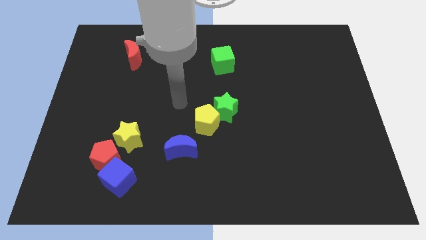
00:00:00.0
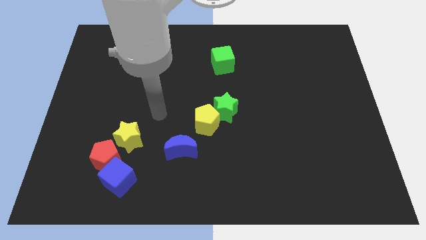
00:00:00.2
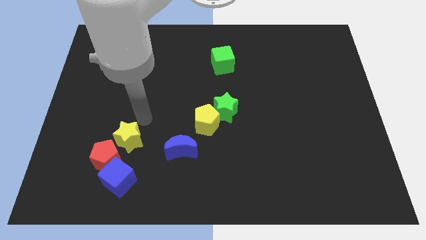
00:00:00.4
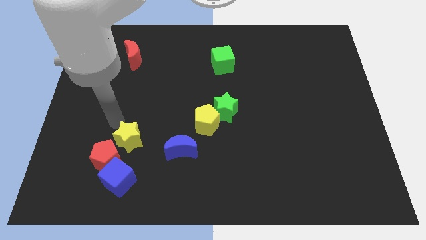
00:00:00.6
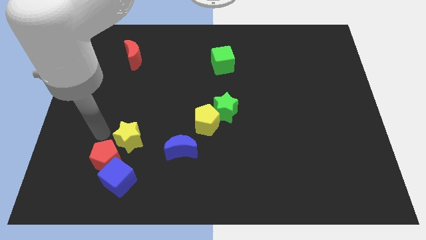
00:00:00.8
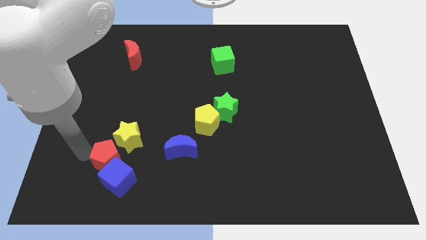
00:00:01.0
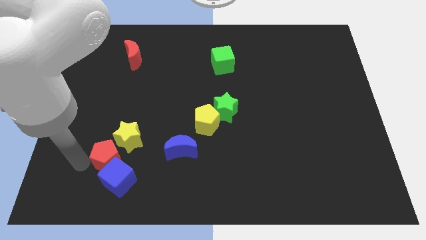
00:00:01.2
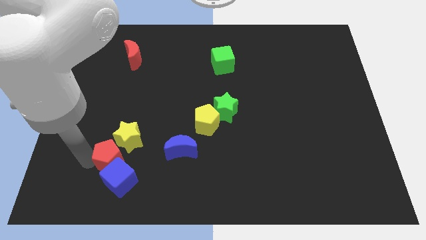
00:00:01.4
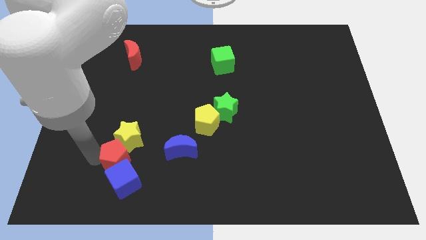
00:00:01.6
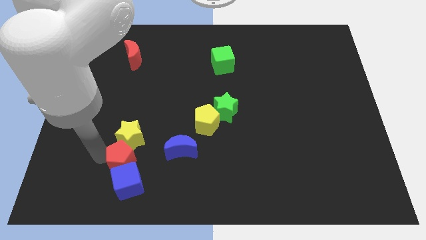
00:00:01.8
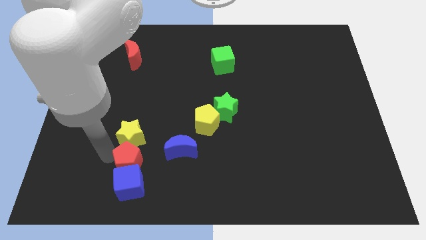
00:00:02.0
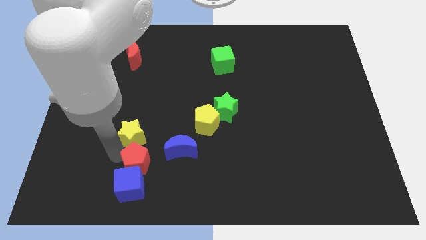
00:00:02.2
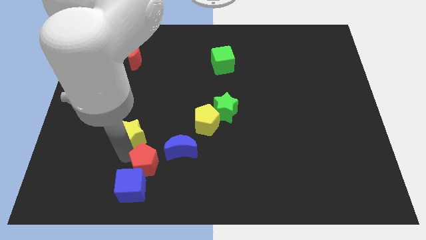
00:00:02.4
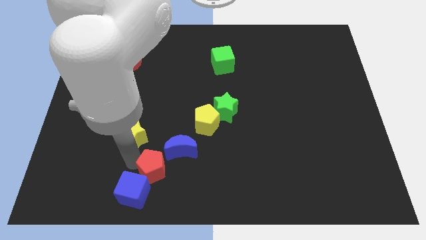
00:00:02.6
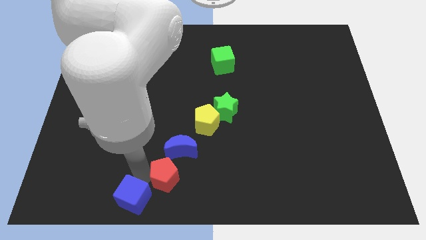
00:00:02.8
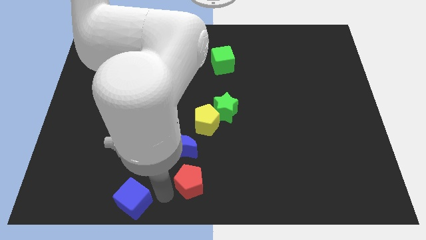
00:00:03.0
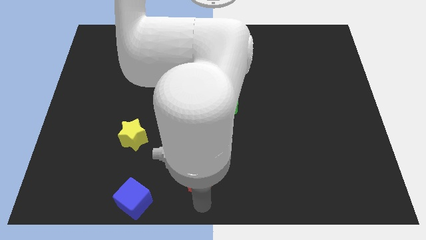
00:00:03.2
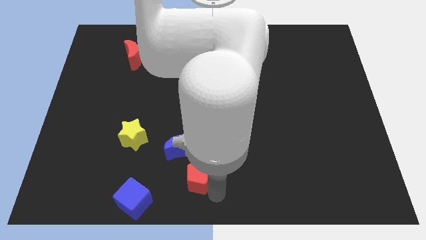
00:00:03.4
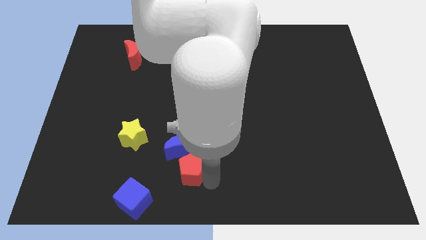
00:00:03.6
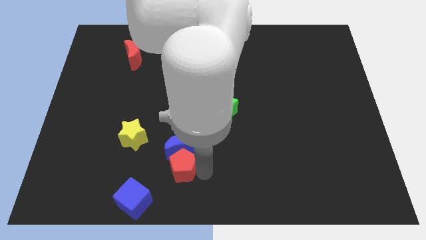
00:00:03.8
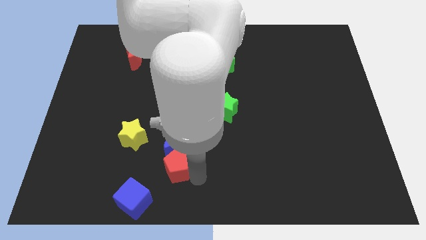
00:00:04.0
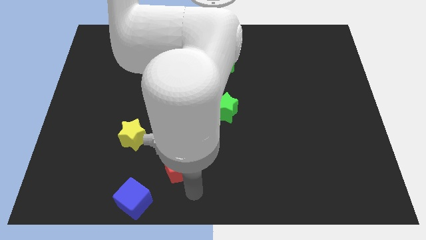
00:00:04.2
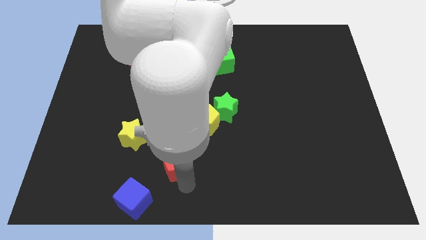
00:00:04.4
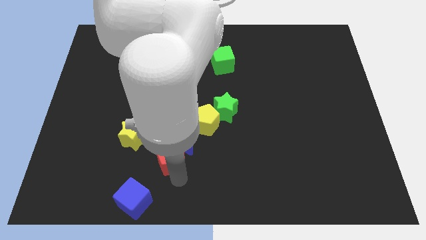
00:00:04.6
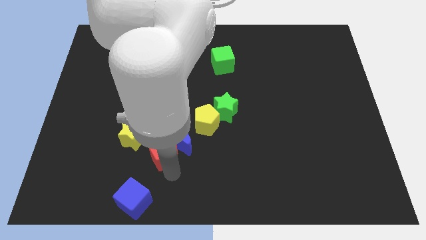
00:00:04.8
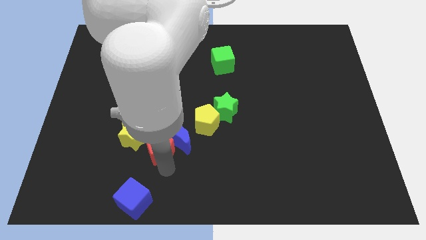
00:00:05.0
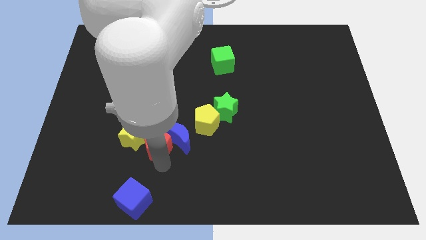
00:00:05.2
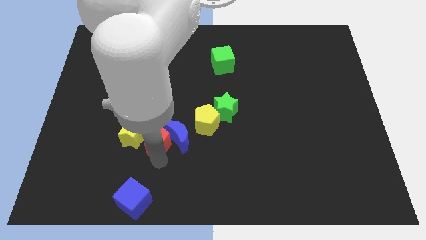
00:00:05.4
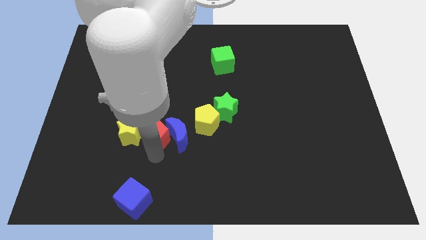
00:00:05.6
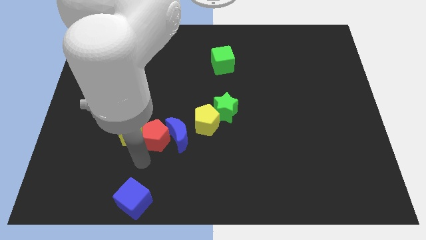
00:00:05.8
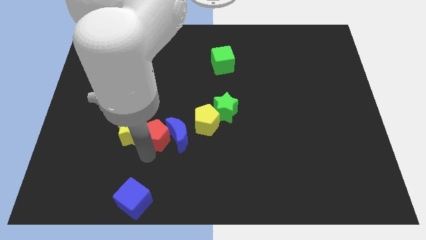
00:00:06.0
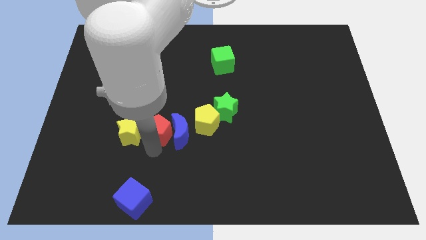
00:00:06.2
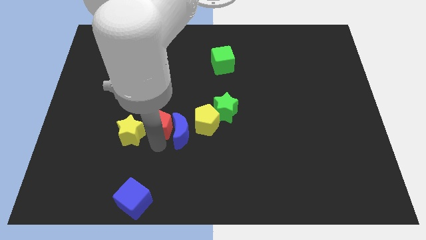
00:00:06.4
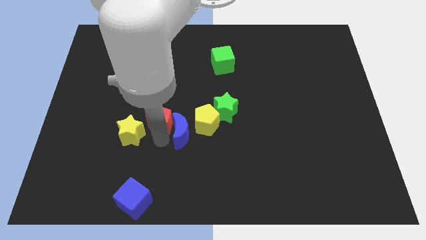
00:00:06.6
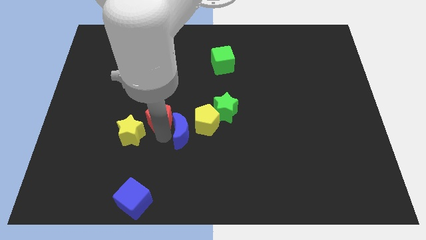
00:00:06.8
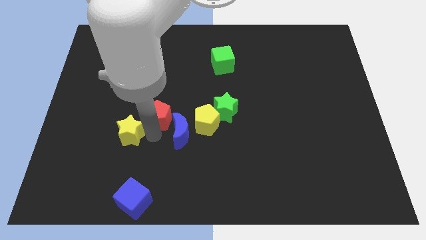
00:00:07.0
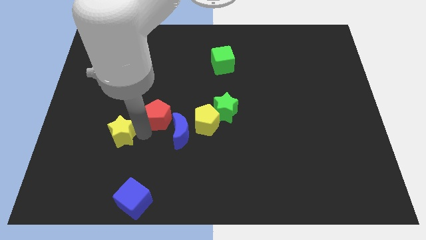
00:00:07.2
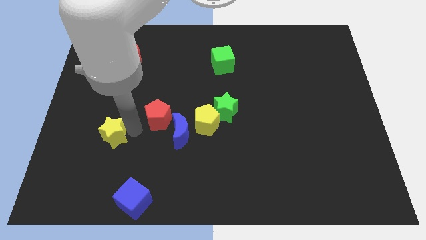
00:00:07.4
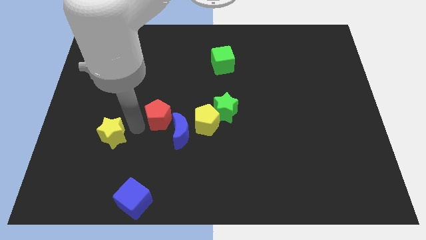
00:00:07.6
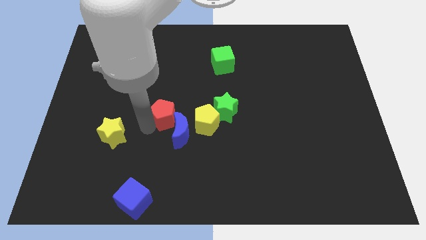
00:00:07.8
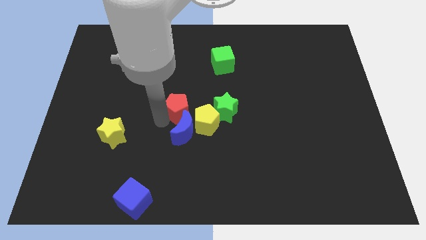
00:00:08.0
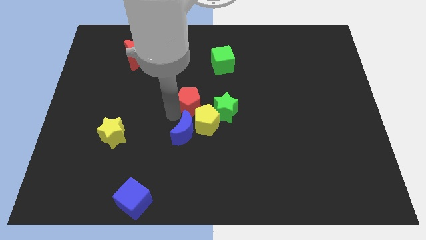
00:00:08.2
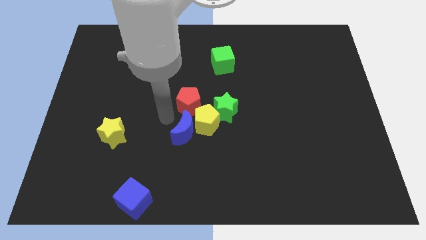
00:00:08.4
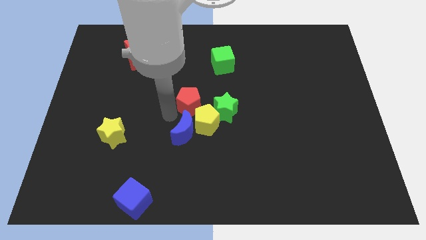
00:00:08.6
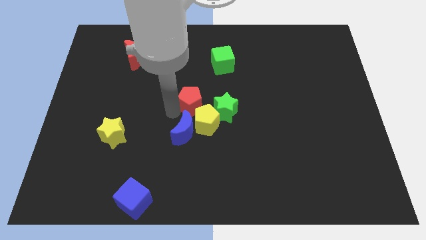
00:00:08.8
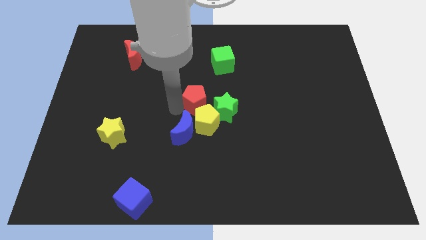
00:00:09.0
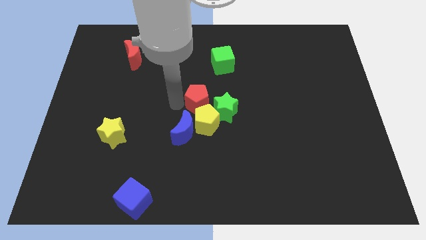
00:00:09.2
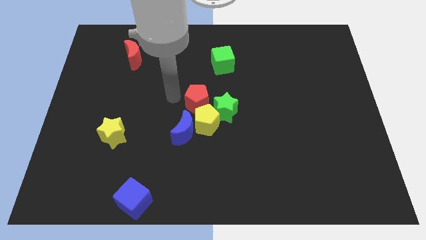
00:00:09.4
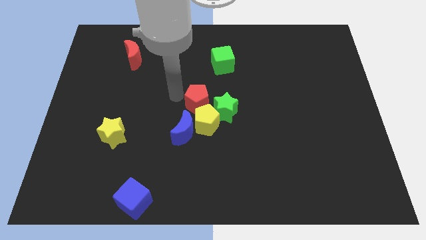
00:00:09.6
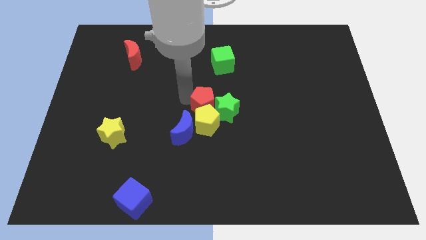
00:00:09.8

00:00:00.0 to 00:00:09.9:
slide the red pentagon next to the green star

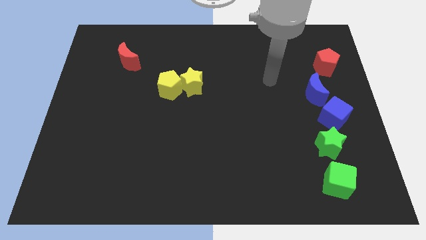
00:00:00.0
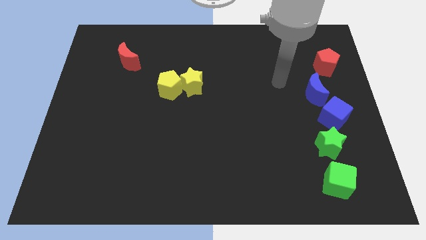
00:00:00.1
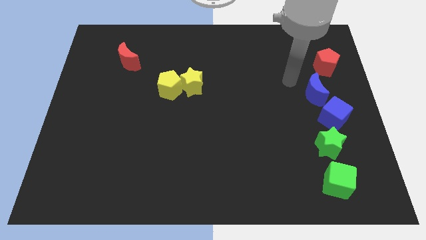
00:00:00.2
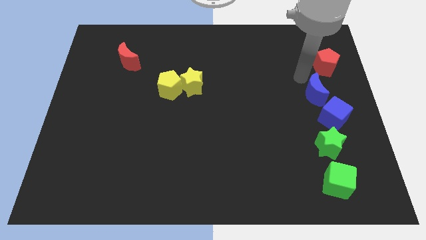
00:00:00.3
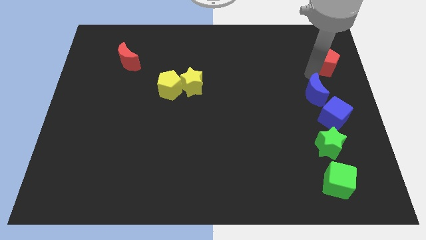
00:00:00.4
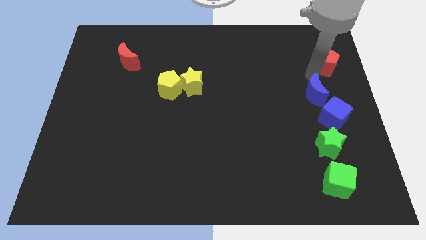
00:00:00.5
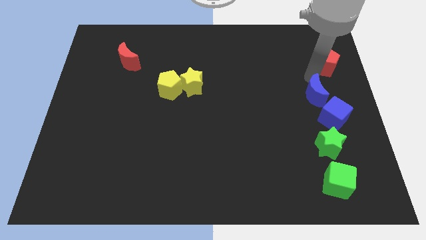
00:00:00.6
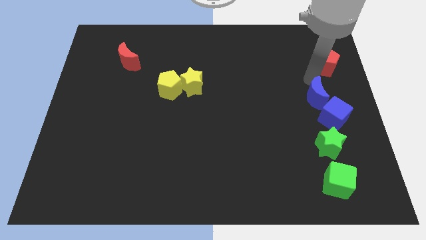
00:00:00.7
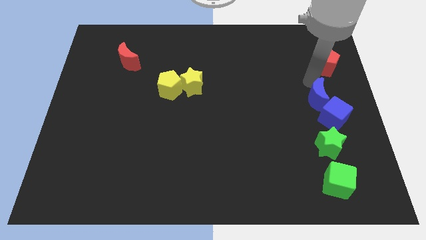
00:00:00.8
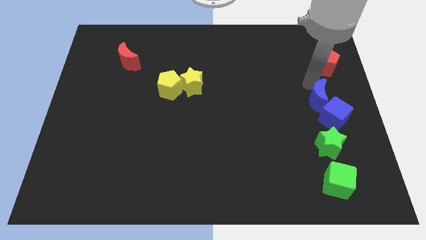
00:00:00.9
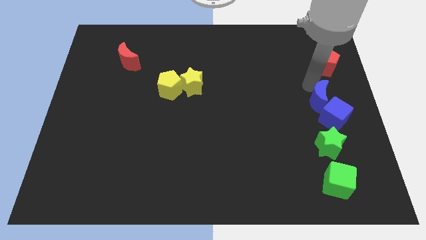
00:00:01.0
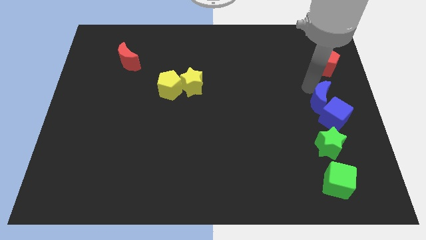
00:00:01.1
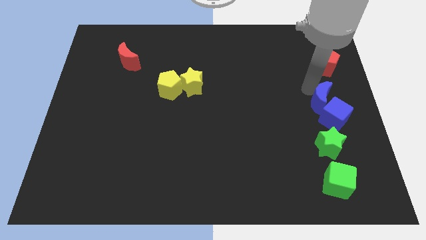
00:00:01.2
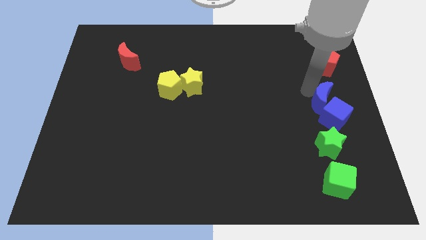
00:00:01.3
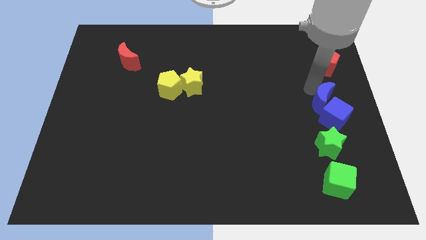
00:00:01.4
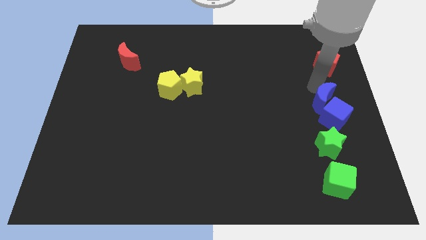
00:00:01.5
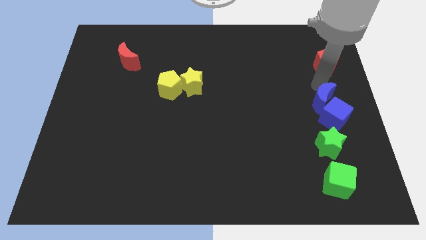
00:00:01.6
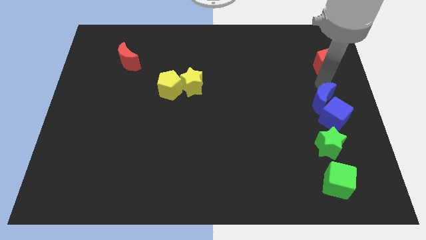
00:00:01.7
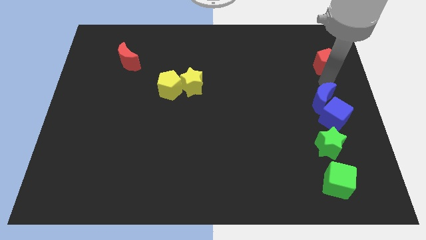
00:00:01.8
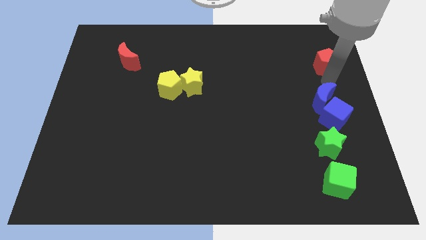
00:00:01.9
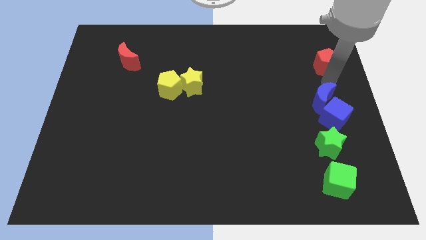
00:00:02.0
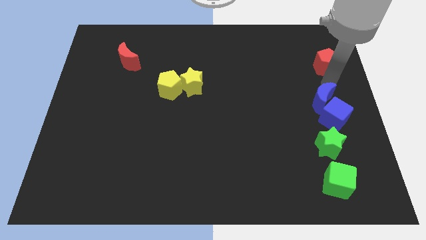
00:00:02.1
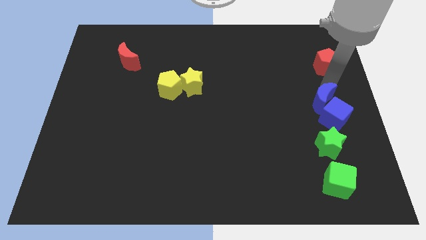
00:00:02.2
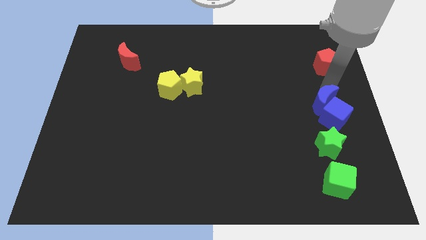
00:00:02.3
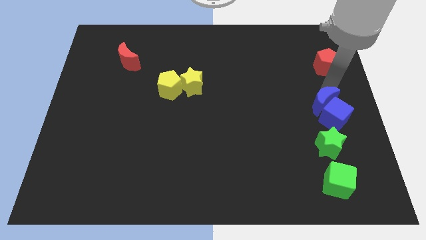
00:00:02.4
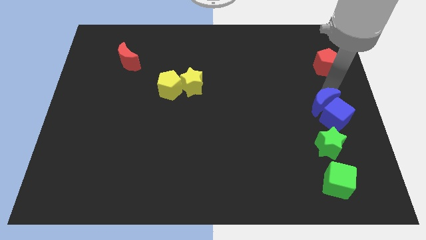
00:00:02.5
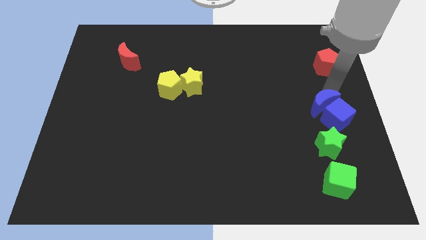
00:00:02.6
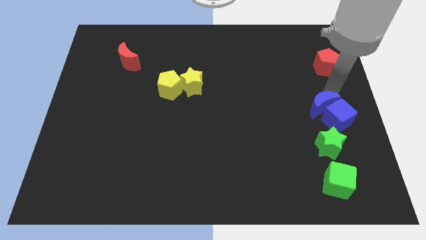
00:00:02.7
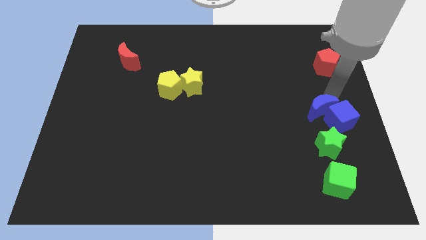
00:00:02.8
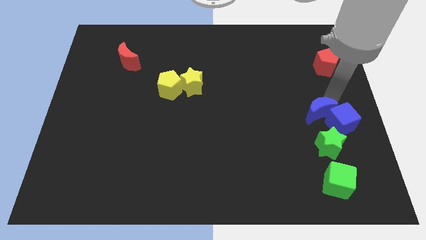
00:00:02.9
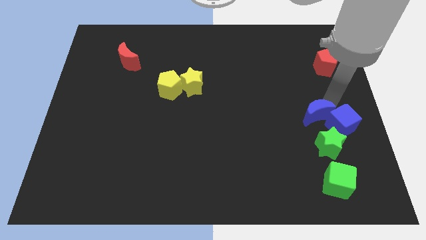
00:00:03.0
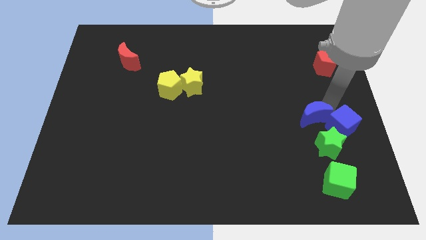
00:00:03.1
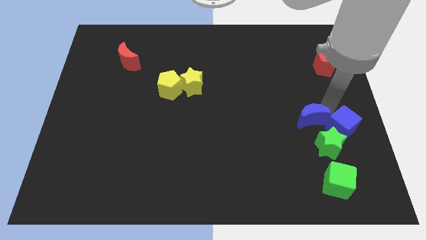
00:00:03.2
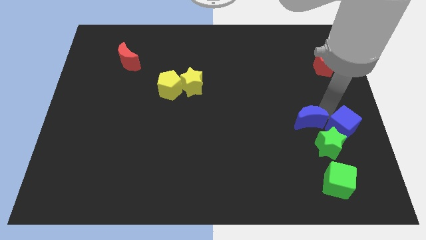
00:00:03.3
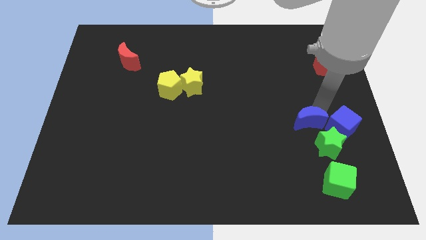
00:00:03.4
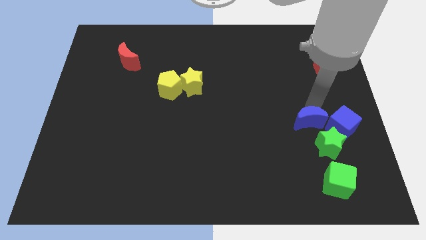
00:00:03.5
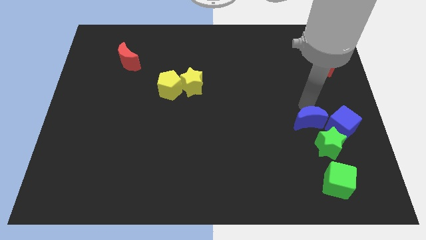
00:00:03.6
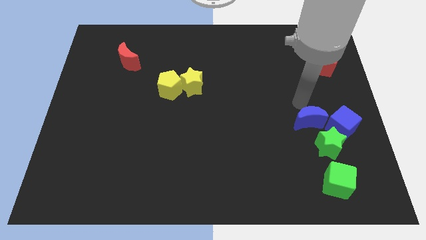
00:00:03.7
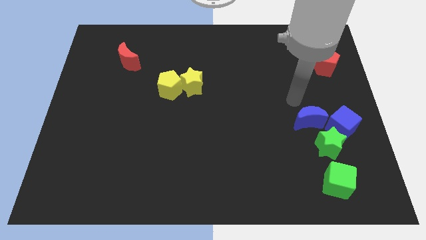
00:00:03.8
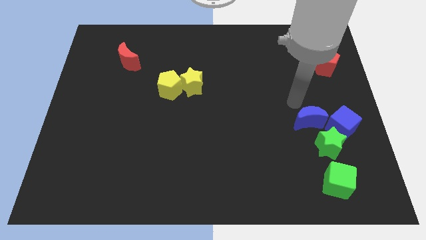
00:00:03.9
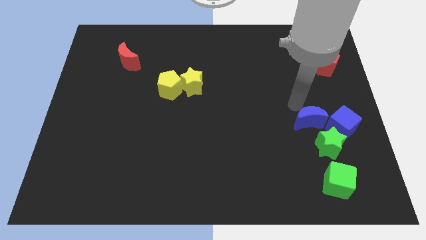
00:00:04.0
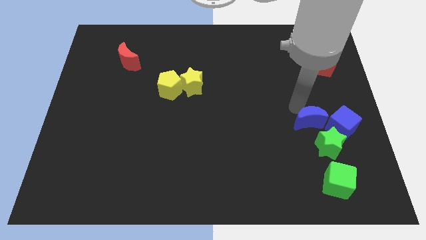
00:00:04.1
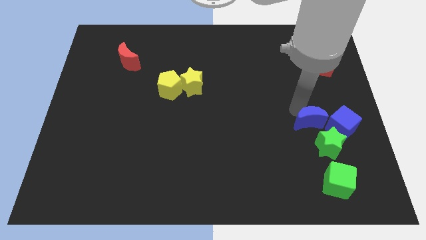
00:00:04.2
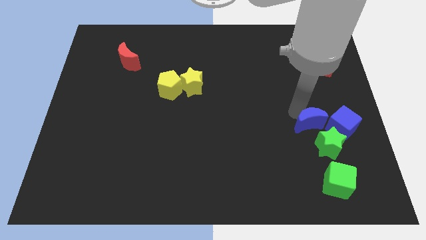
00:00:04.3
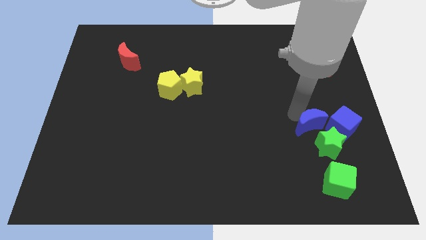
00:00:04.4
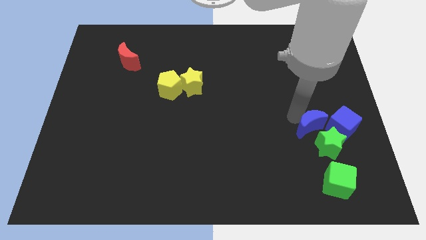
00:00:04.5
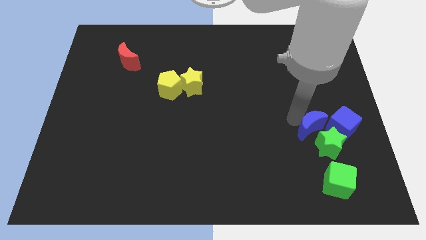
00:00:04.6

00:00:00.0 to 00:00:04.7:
move the blue moon to the green star
